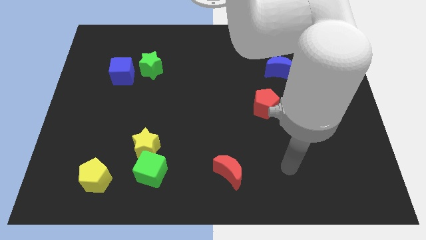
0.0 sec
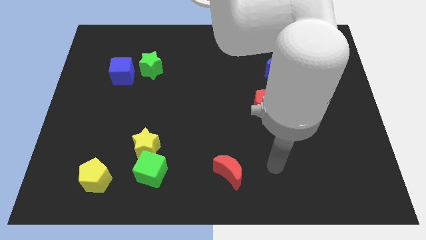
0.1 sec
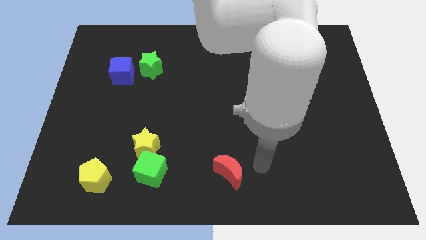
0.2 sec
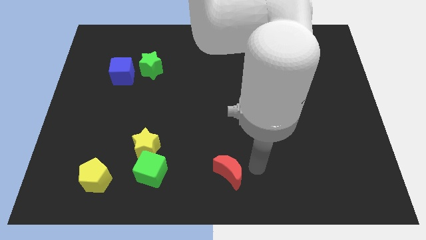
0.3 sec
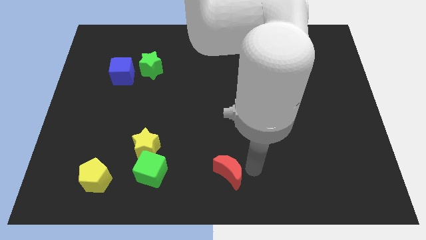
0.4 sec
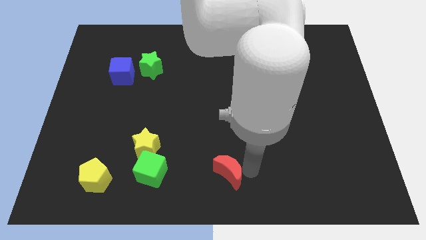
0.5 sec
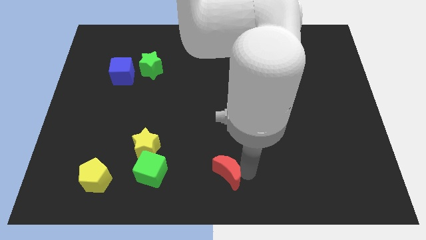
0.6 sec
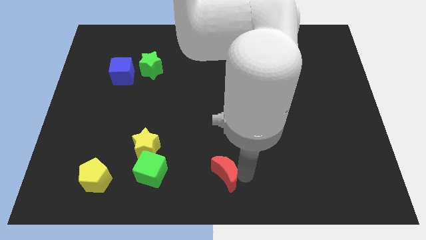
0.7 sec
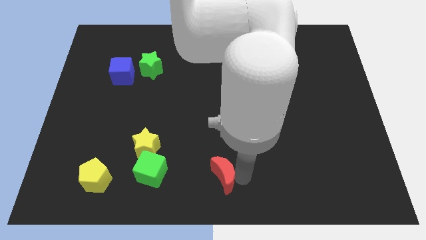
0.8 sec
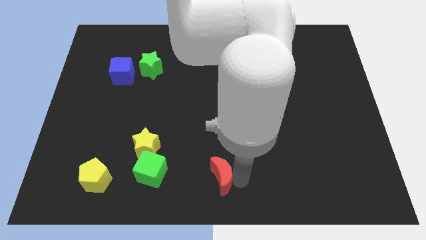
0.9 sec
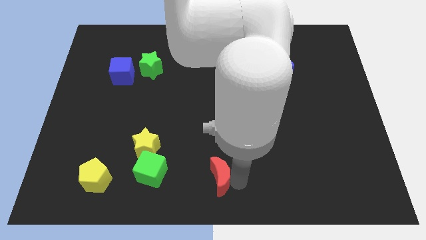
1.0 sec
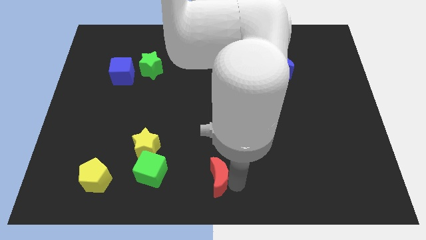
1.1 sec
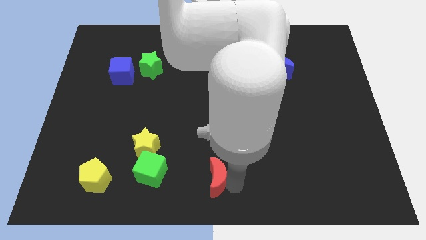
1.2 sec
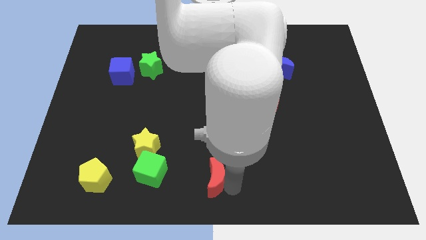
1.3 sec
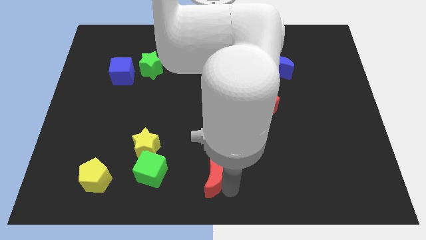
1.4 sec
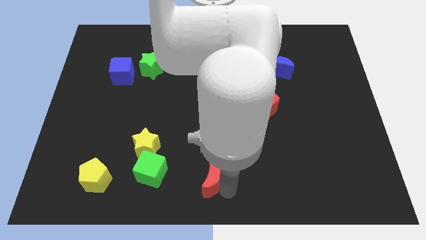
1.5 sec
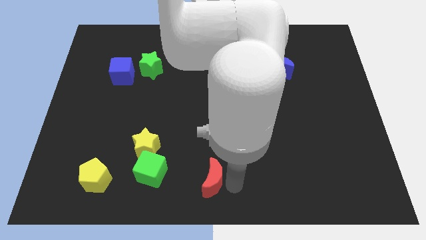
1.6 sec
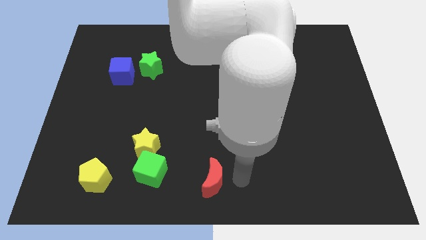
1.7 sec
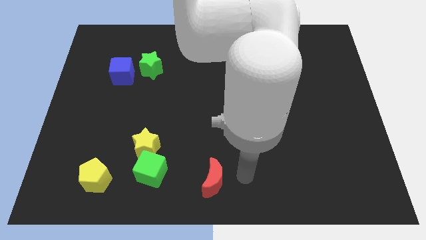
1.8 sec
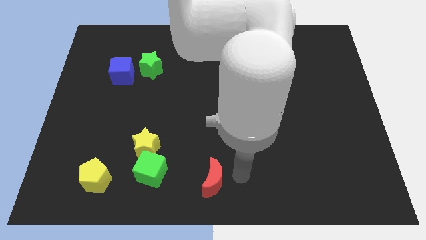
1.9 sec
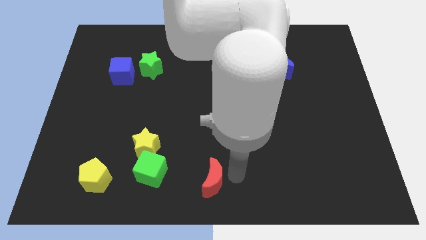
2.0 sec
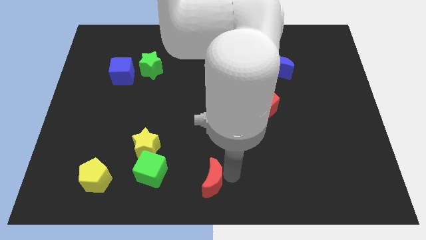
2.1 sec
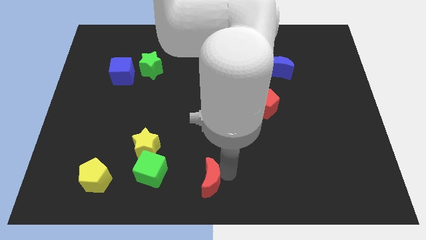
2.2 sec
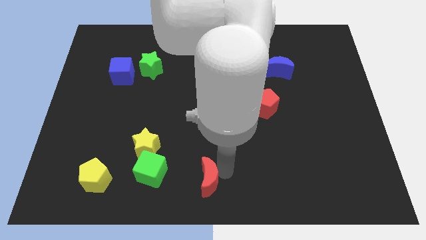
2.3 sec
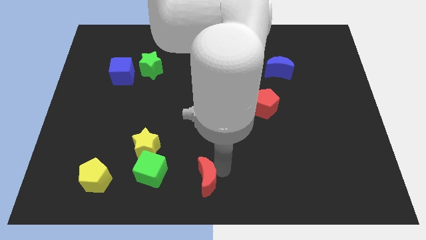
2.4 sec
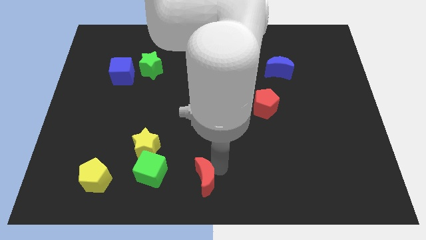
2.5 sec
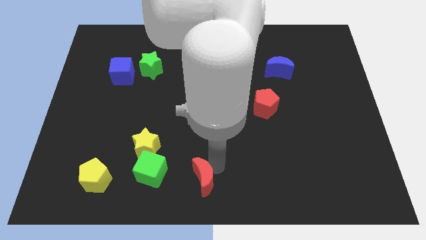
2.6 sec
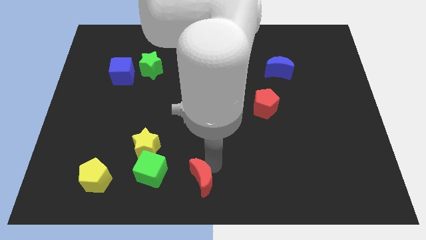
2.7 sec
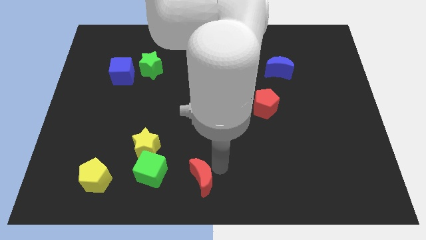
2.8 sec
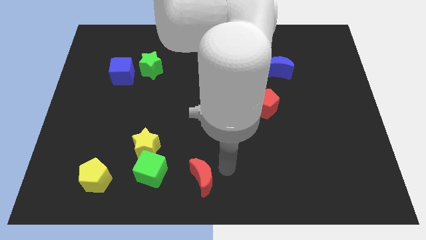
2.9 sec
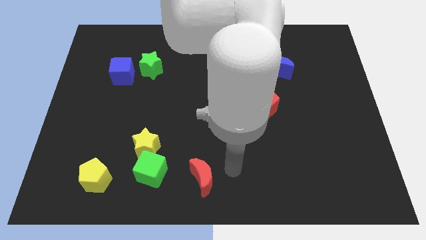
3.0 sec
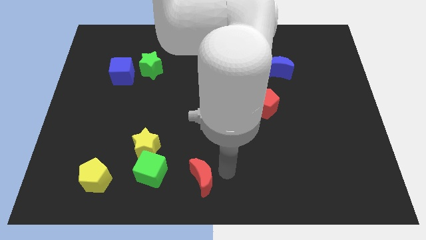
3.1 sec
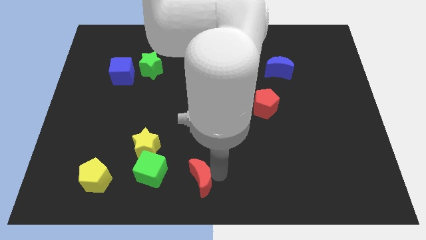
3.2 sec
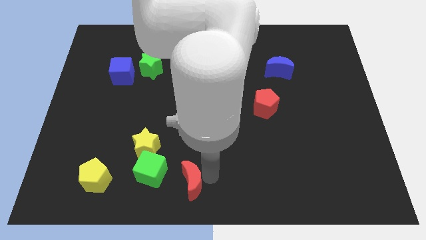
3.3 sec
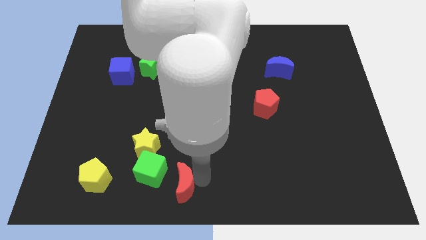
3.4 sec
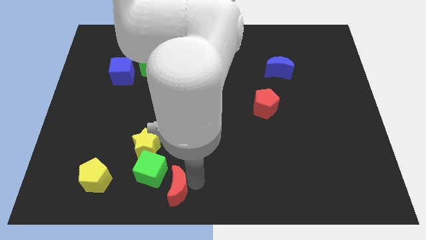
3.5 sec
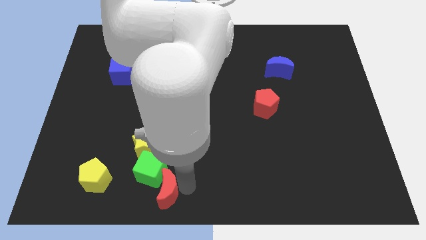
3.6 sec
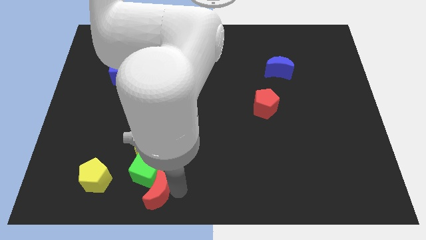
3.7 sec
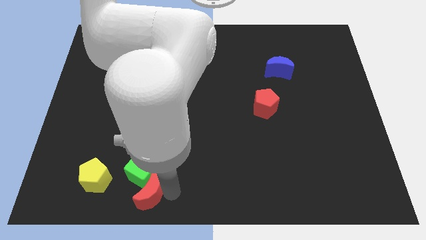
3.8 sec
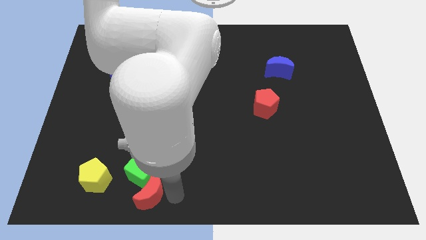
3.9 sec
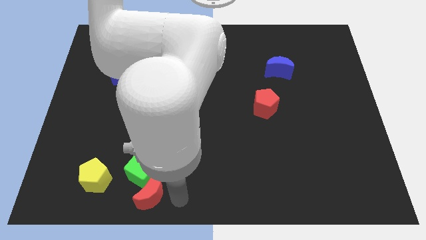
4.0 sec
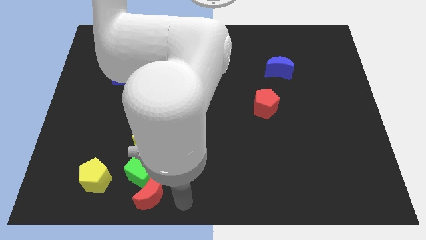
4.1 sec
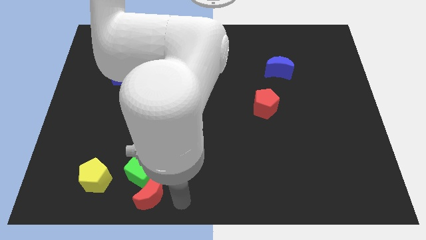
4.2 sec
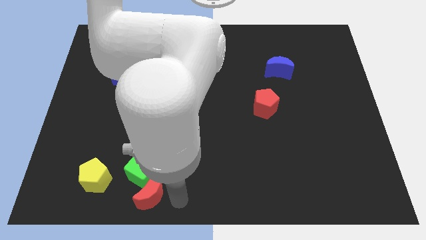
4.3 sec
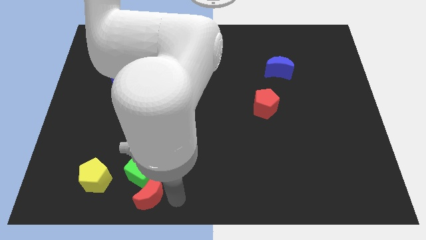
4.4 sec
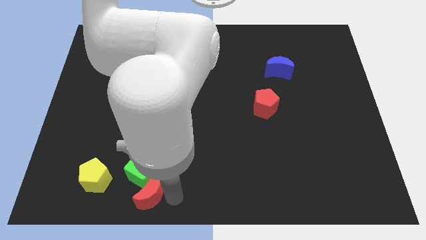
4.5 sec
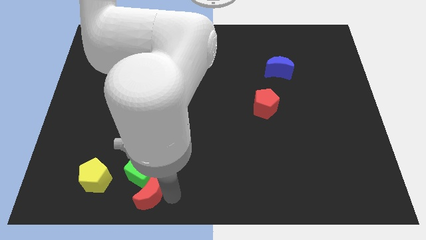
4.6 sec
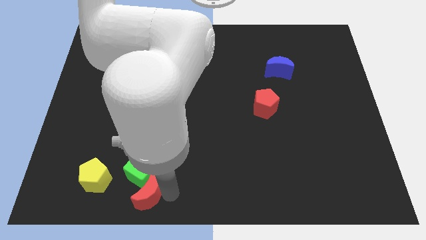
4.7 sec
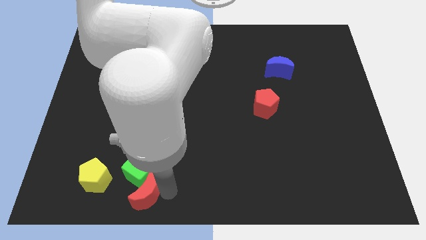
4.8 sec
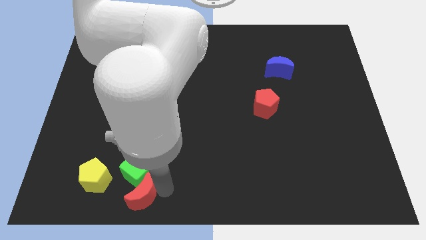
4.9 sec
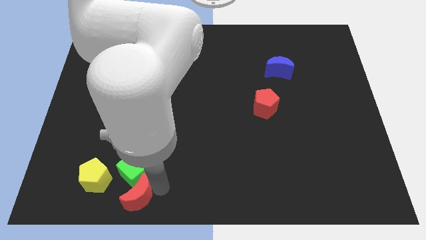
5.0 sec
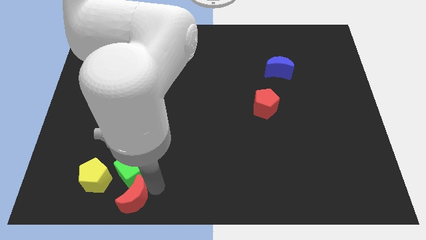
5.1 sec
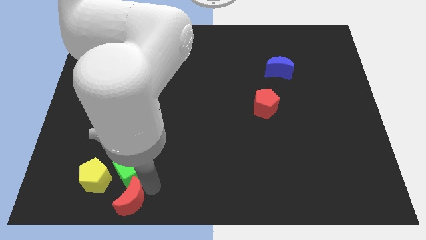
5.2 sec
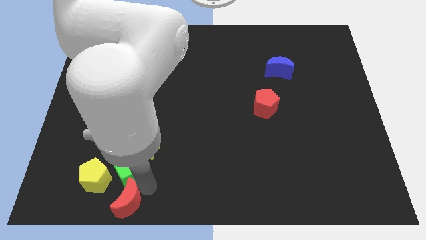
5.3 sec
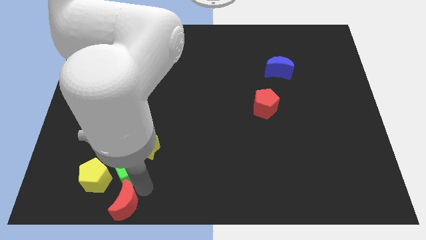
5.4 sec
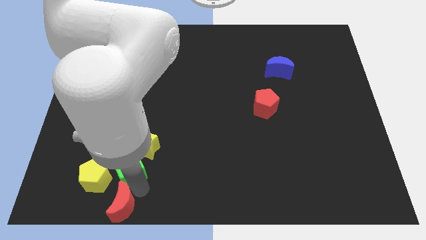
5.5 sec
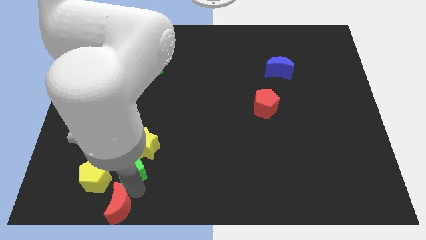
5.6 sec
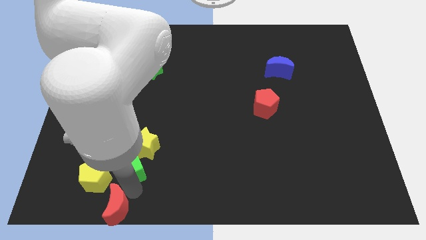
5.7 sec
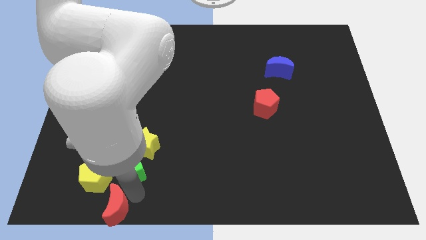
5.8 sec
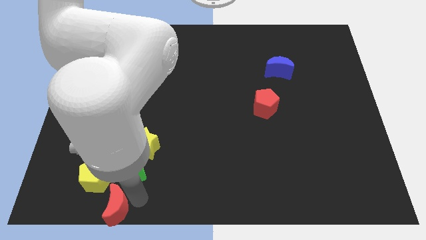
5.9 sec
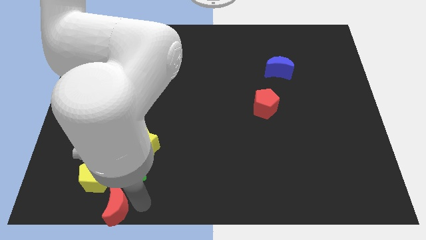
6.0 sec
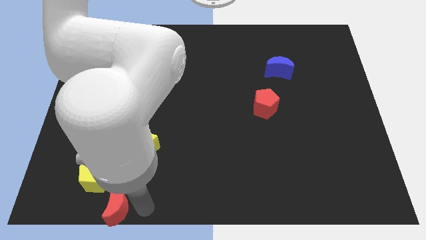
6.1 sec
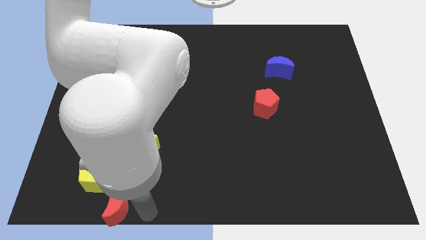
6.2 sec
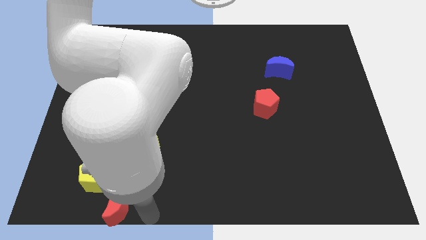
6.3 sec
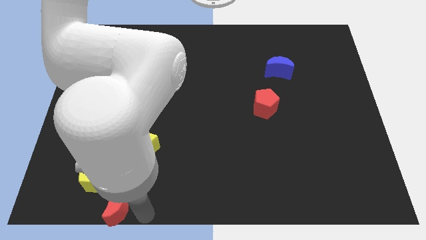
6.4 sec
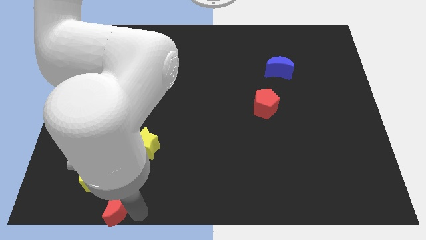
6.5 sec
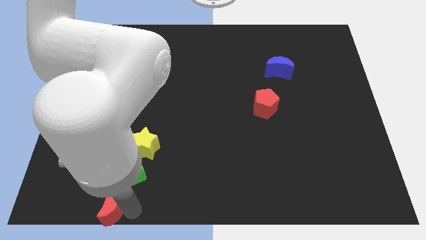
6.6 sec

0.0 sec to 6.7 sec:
slide the red moon left

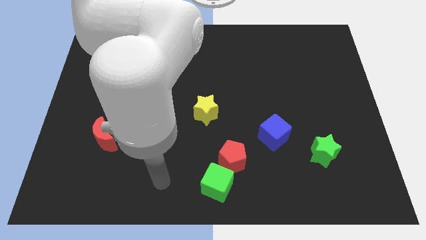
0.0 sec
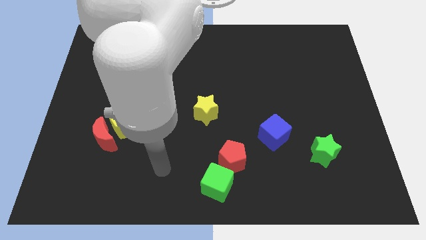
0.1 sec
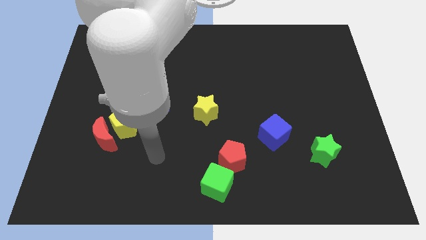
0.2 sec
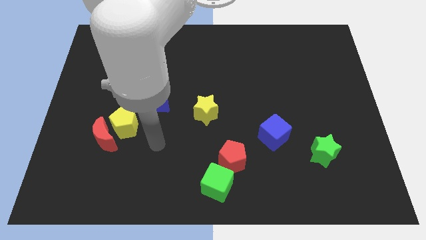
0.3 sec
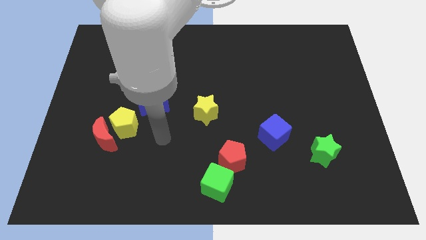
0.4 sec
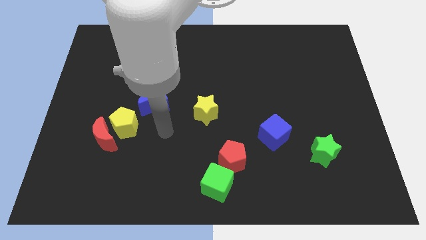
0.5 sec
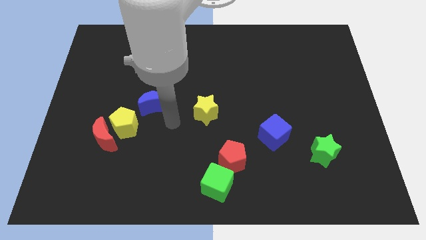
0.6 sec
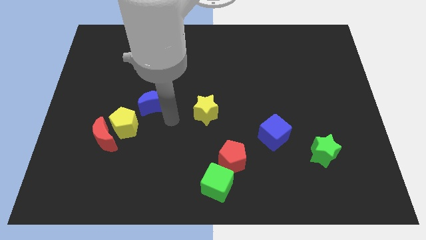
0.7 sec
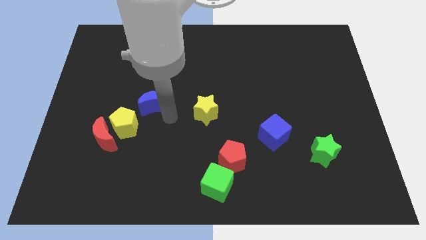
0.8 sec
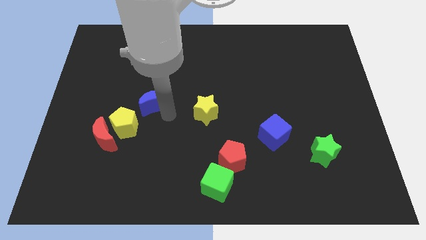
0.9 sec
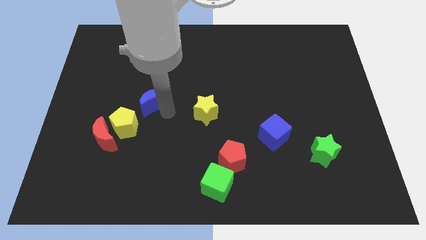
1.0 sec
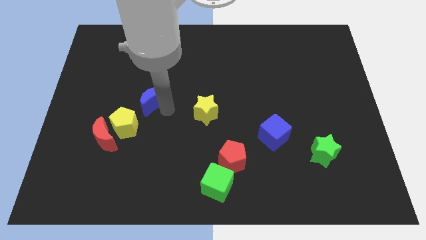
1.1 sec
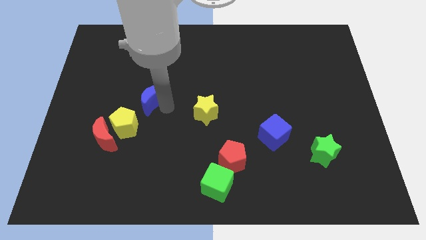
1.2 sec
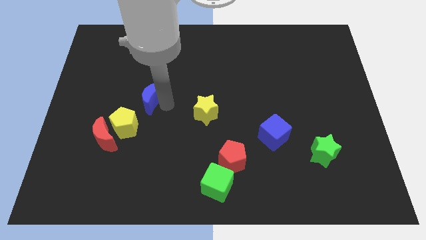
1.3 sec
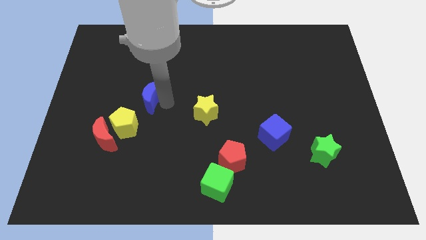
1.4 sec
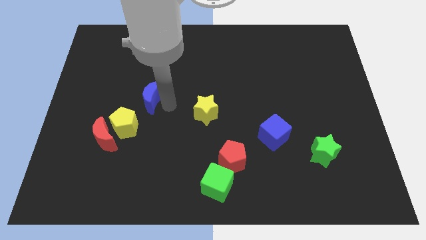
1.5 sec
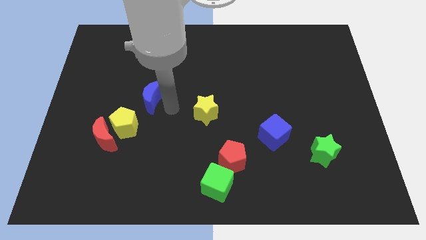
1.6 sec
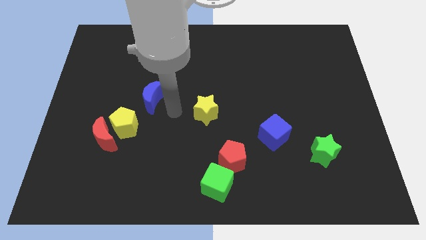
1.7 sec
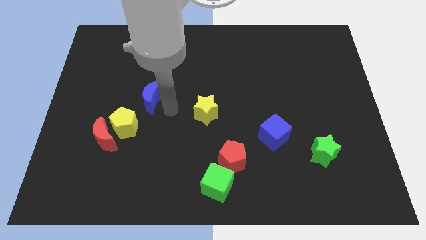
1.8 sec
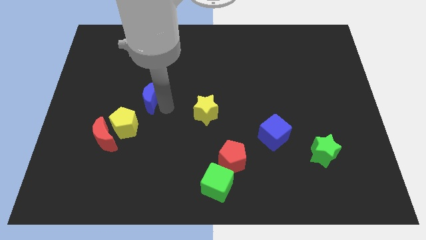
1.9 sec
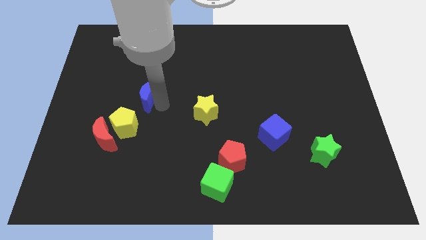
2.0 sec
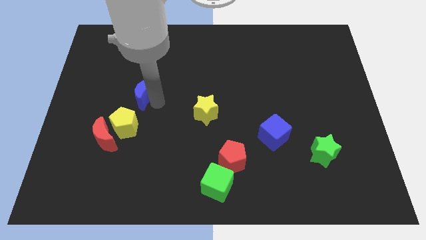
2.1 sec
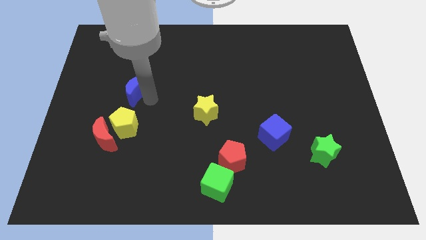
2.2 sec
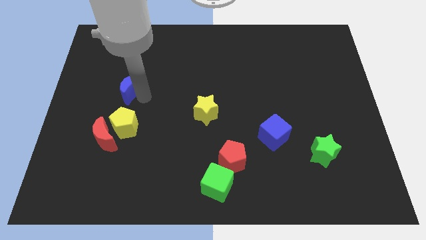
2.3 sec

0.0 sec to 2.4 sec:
slide the blue moon upwards and to the left a little bit
